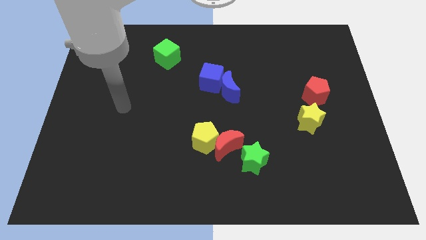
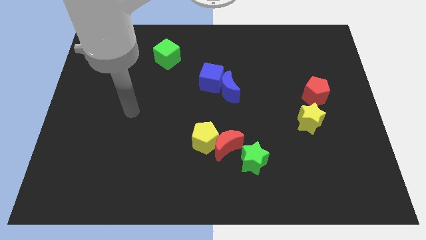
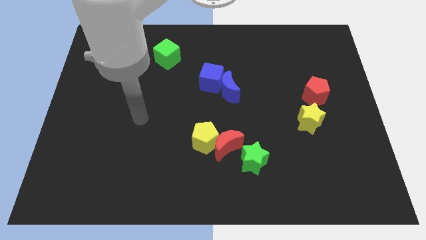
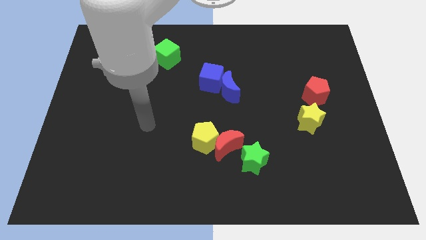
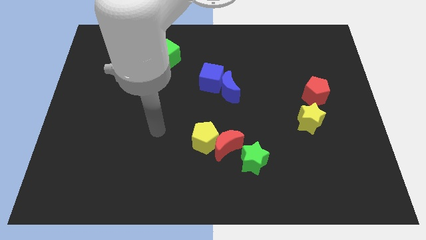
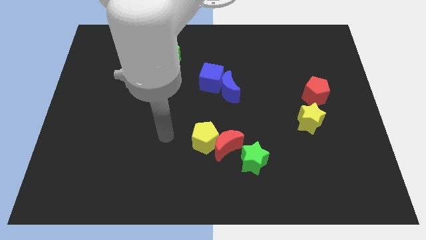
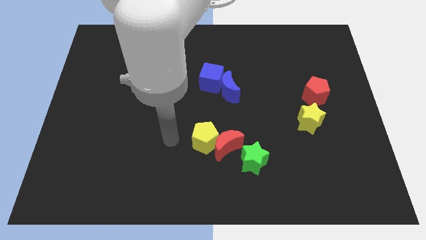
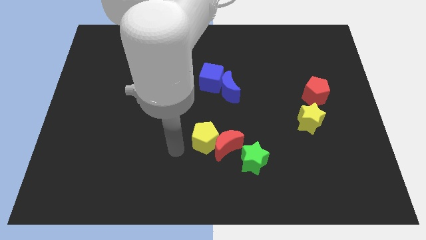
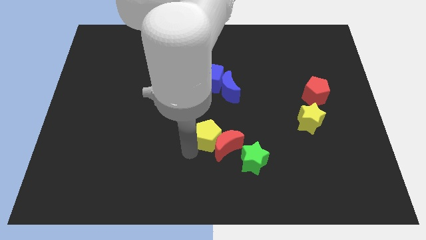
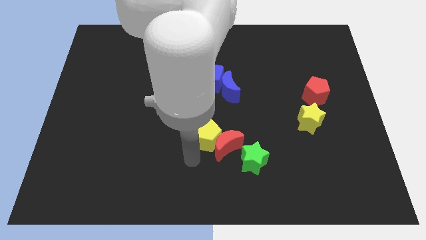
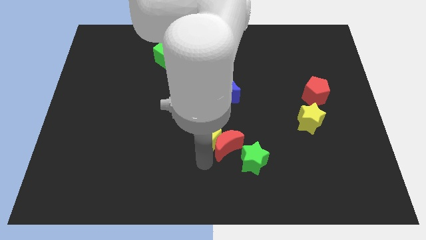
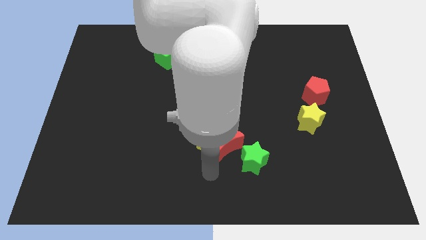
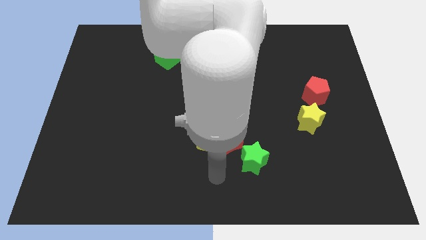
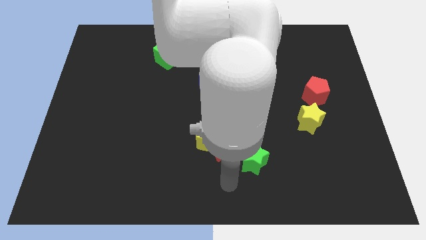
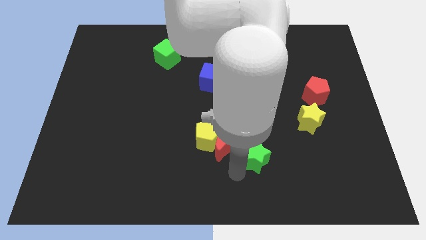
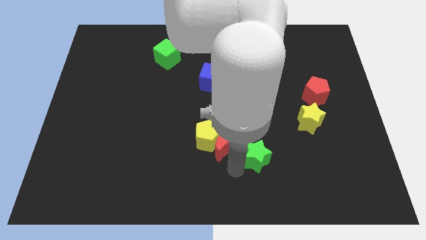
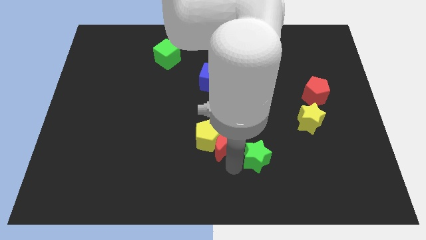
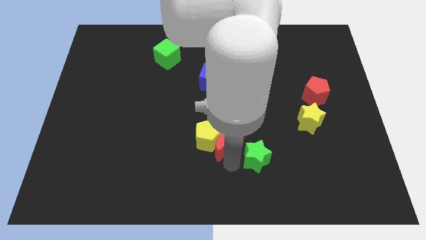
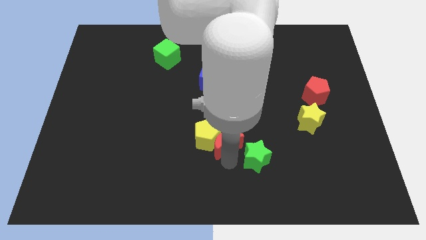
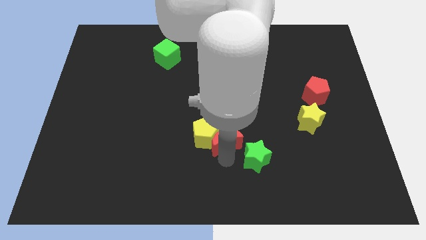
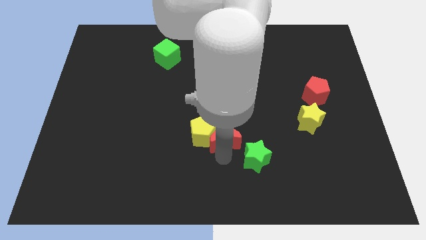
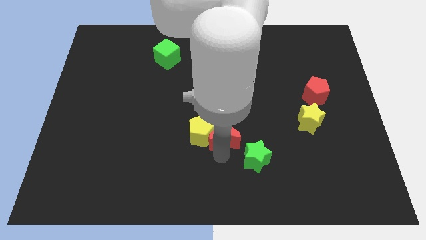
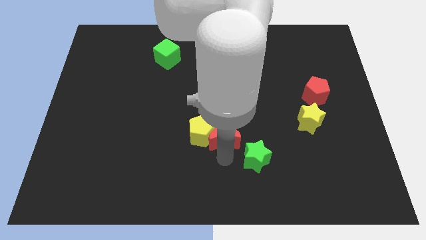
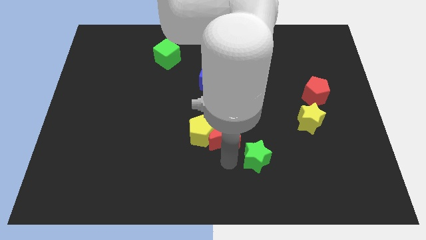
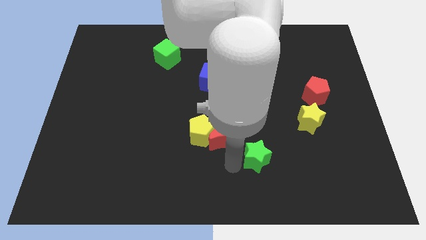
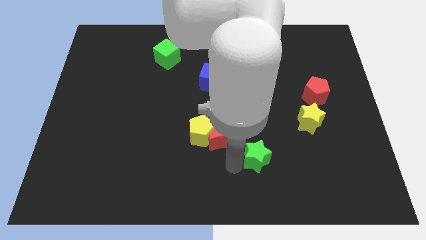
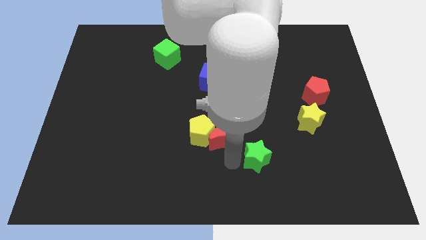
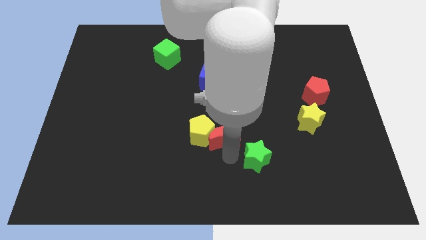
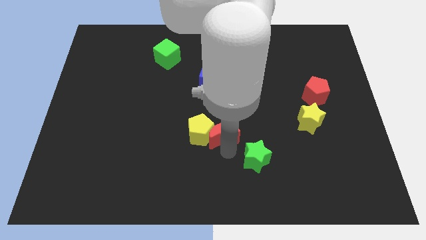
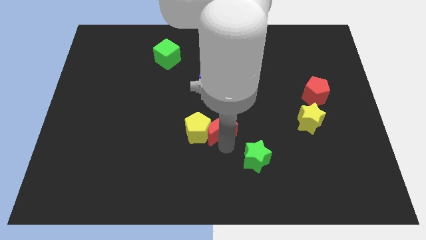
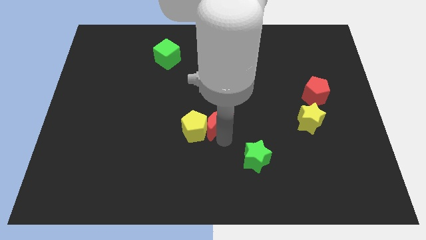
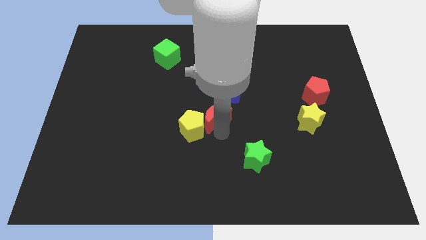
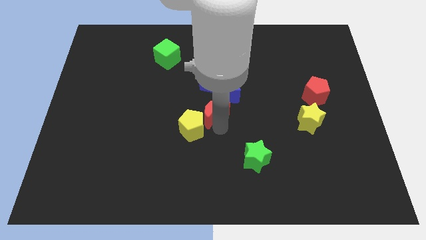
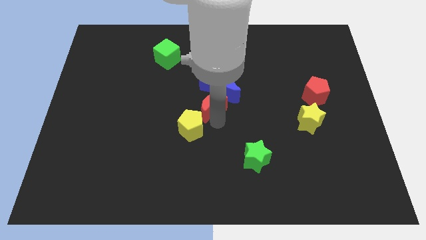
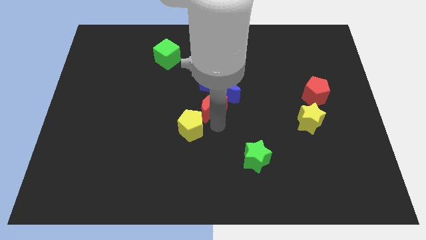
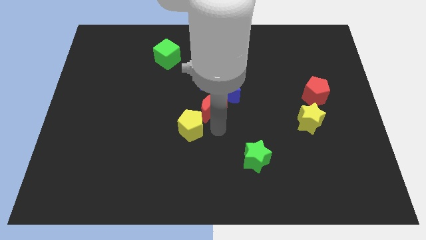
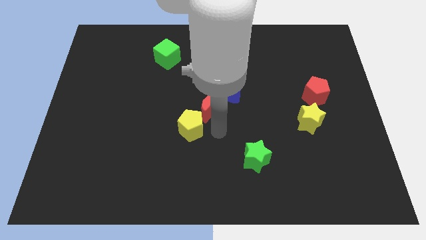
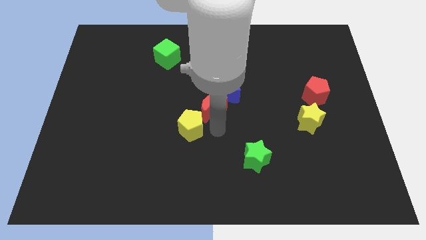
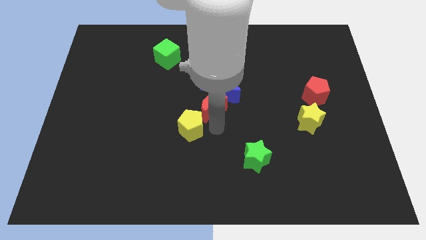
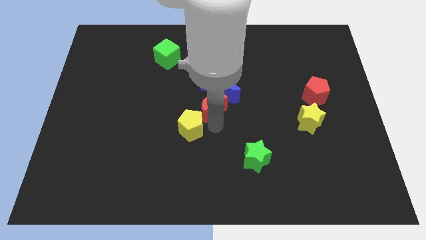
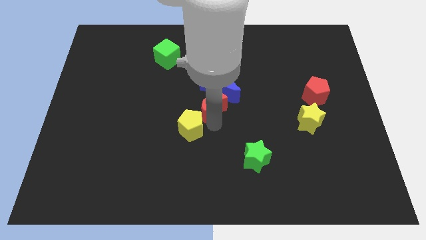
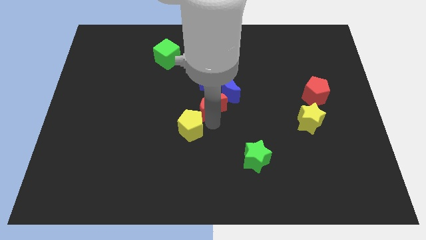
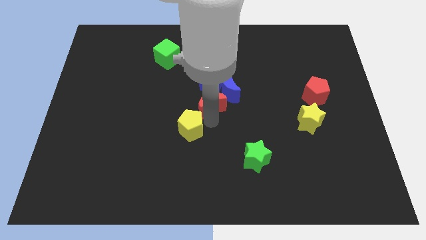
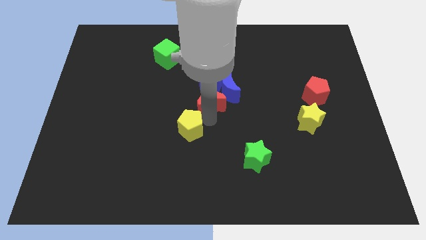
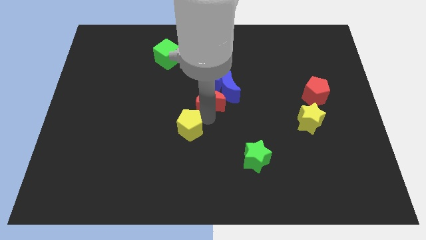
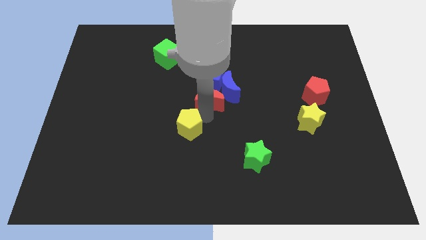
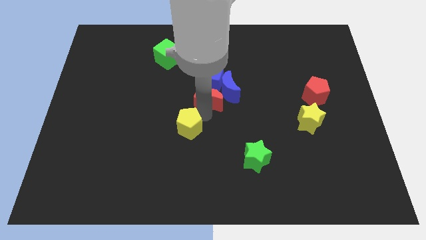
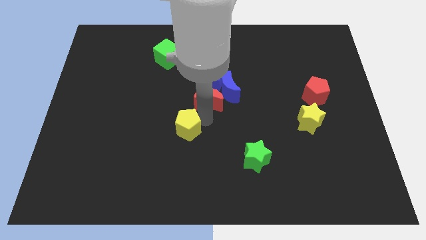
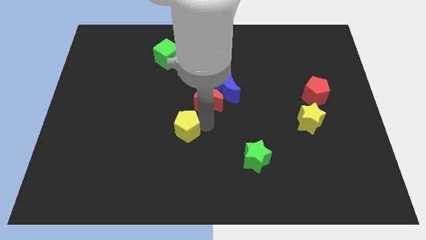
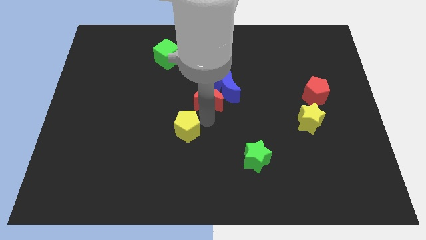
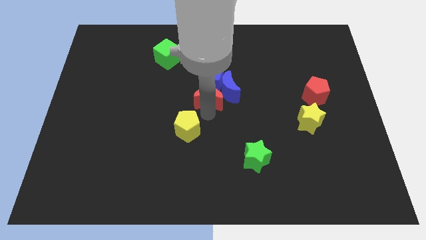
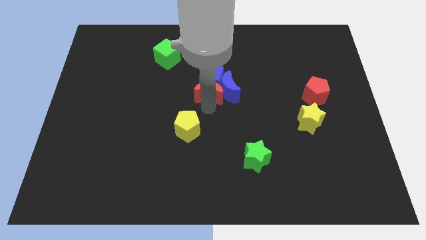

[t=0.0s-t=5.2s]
move the red moon towards the blue cube

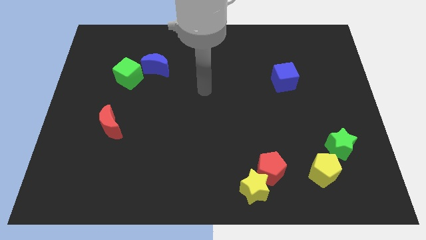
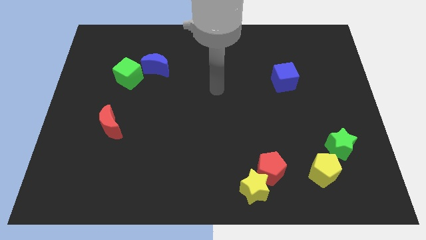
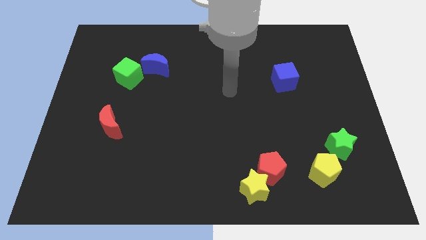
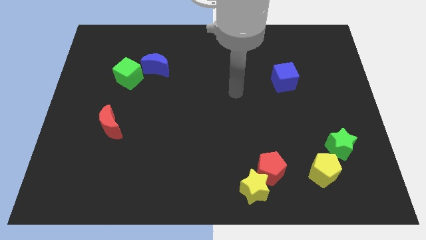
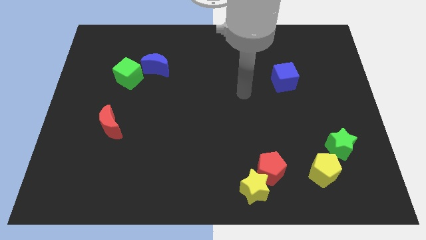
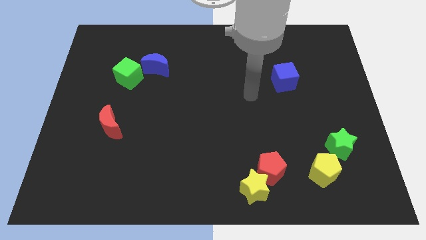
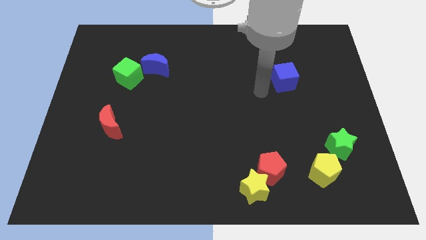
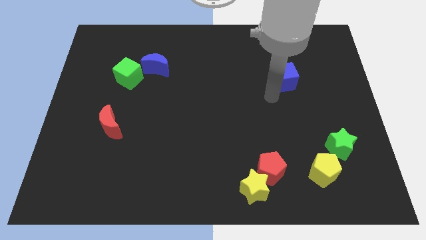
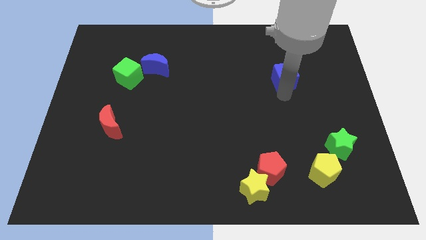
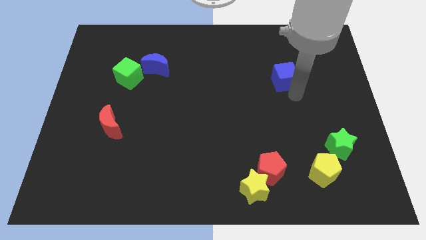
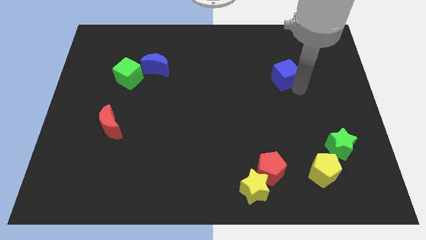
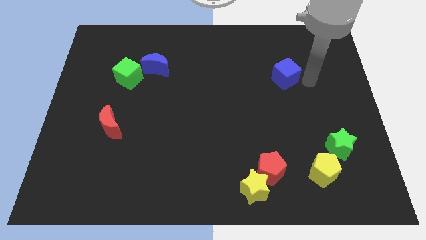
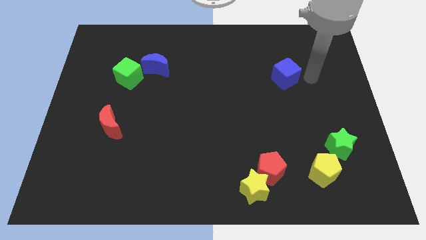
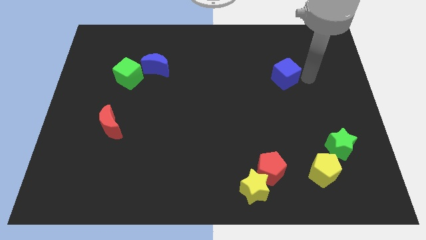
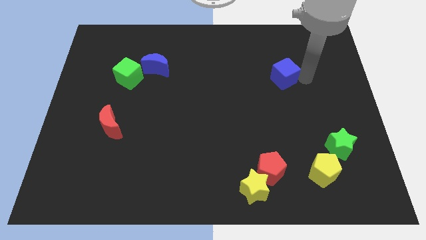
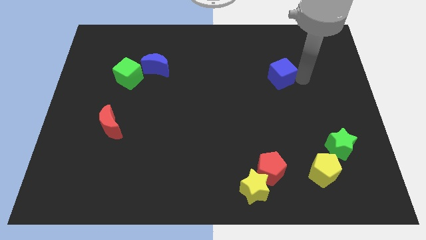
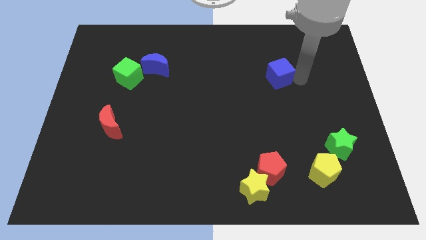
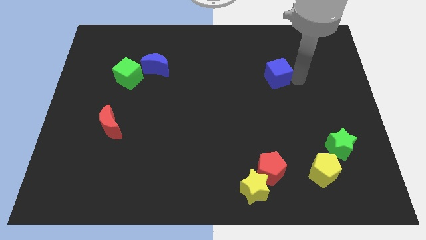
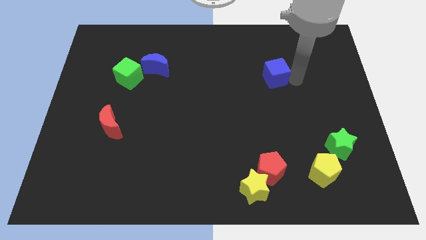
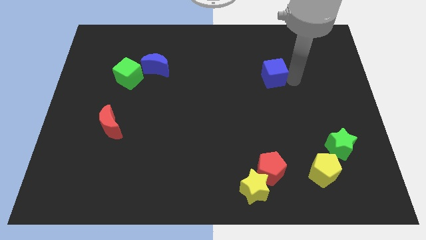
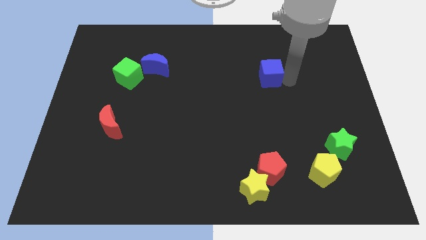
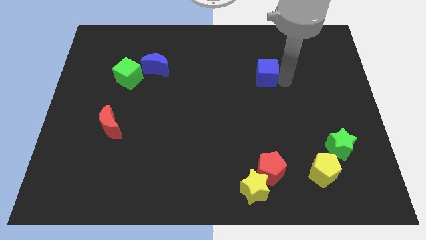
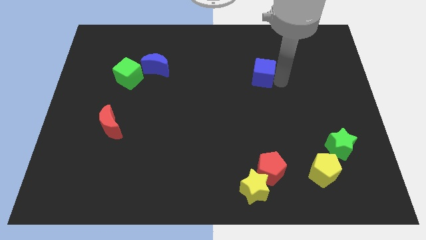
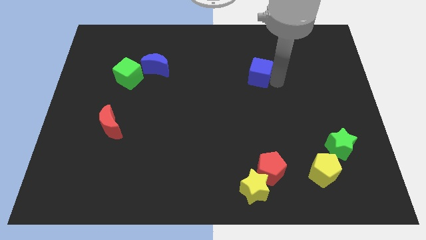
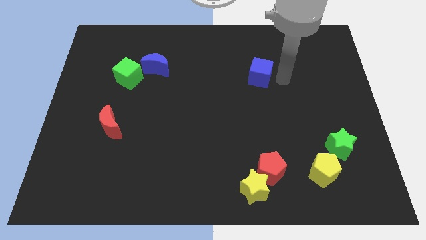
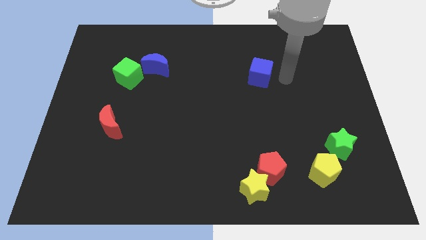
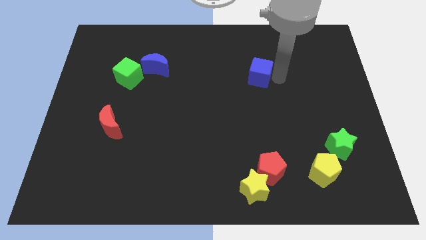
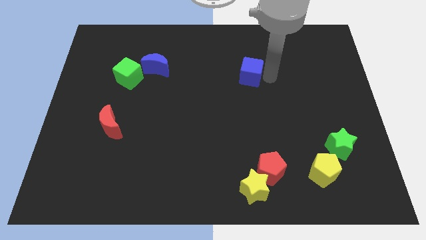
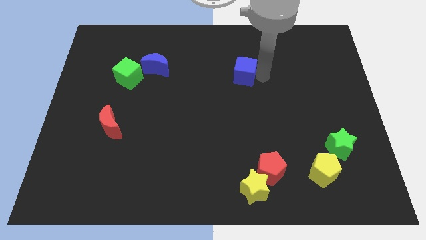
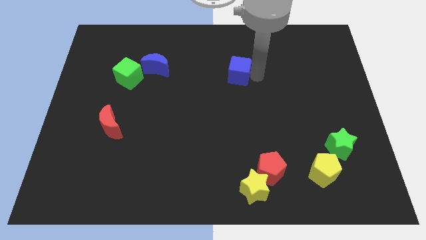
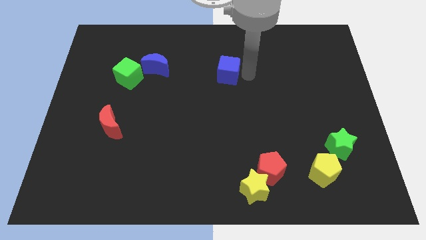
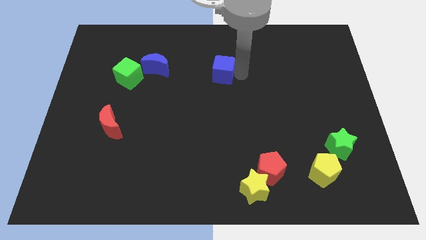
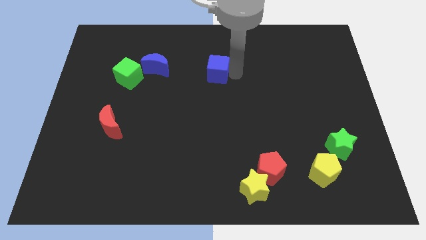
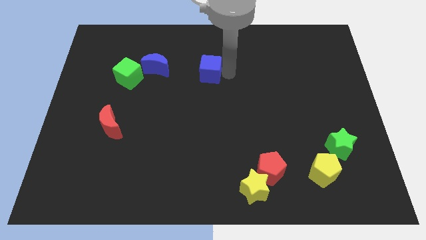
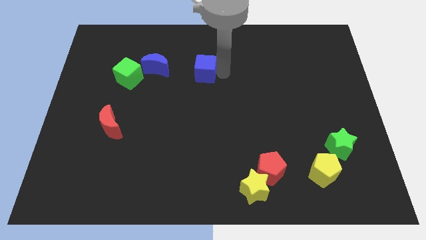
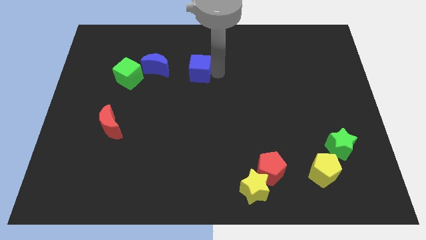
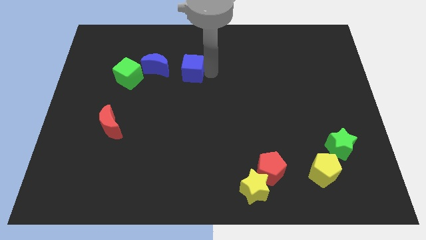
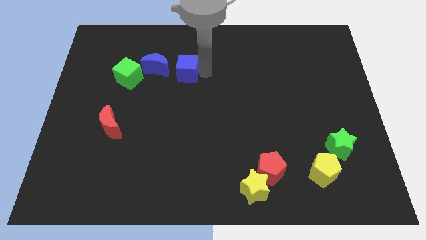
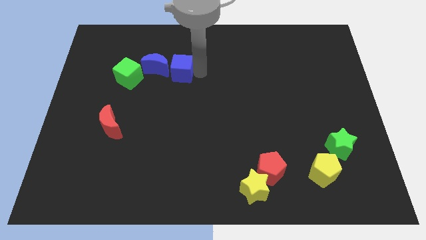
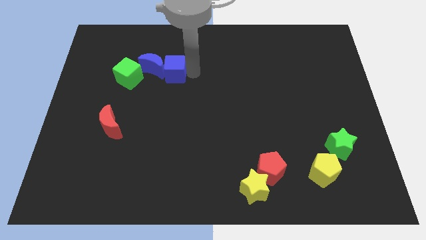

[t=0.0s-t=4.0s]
move the blue cube towards the blue moon
